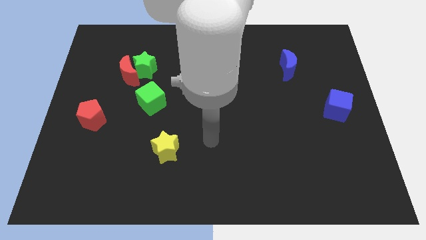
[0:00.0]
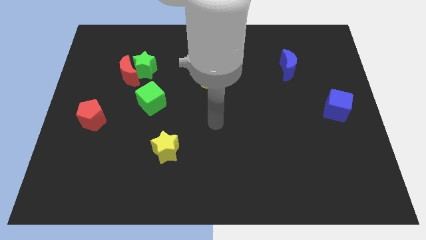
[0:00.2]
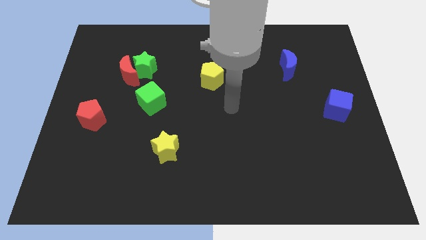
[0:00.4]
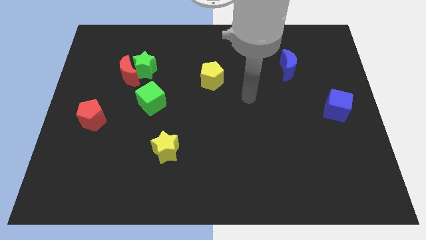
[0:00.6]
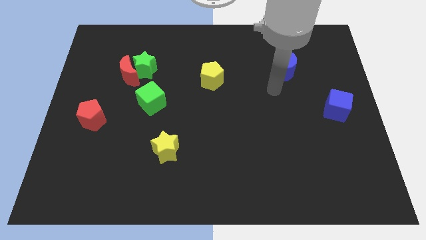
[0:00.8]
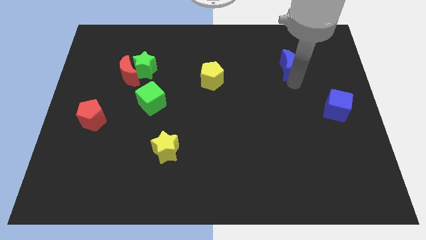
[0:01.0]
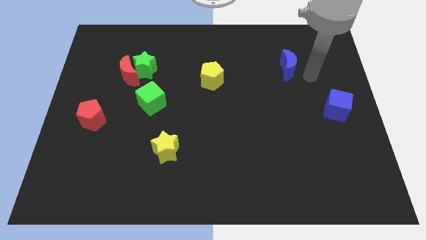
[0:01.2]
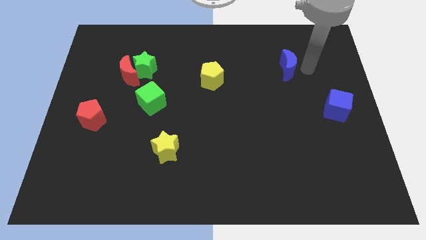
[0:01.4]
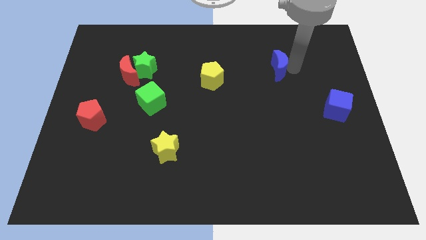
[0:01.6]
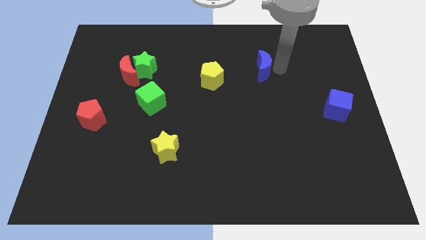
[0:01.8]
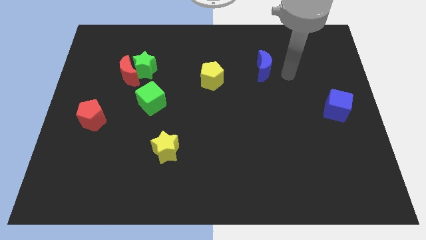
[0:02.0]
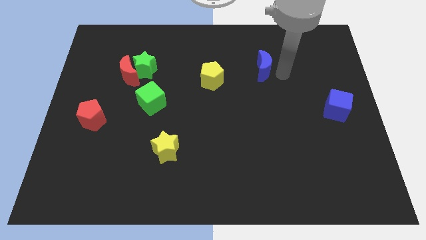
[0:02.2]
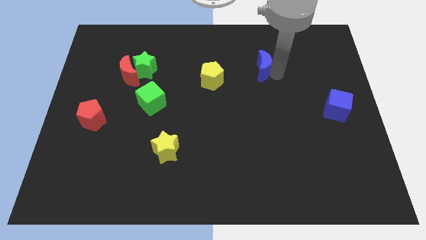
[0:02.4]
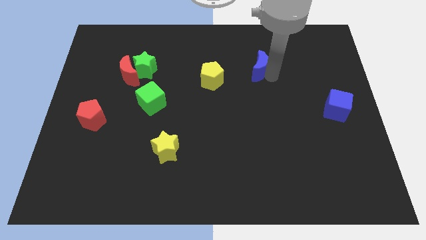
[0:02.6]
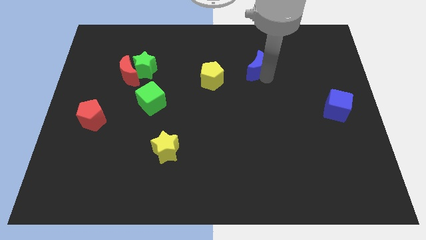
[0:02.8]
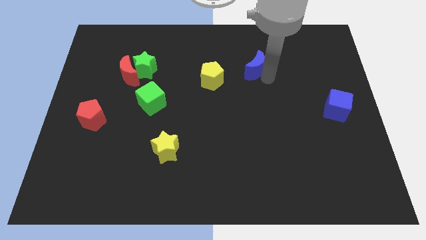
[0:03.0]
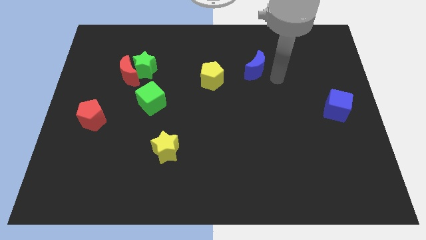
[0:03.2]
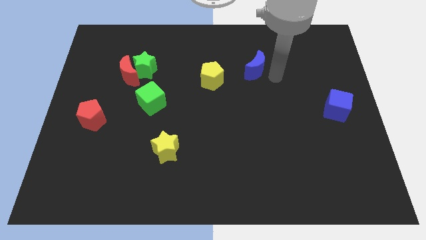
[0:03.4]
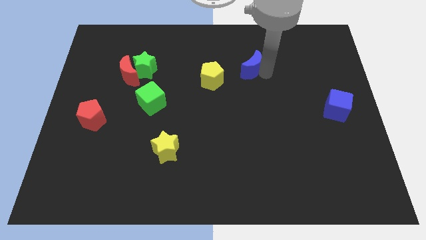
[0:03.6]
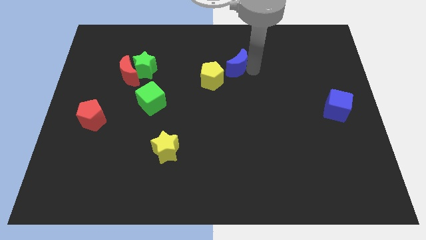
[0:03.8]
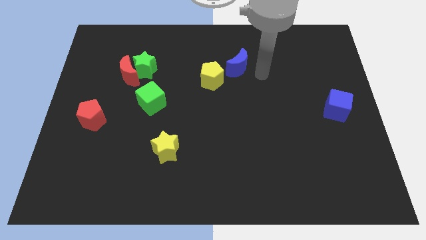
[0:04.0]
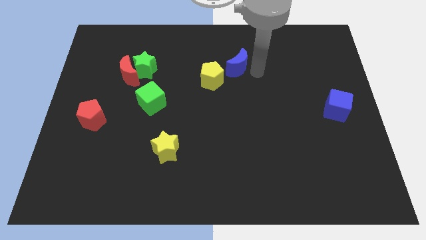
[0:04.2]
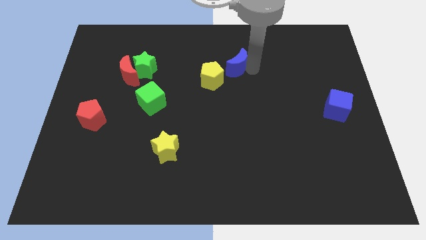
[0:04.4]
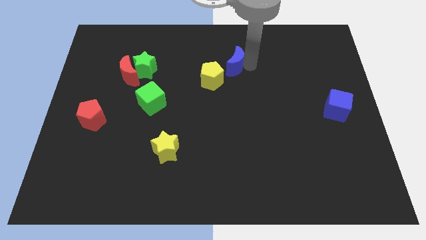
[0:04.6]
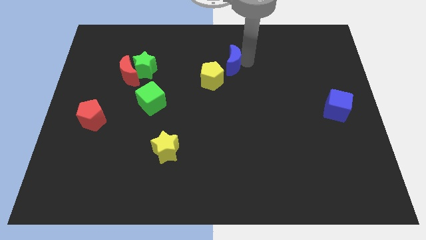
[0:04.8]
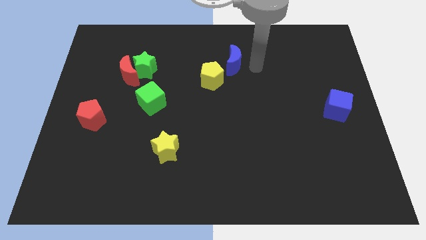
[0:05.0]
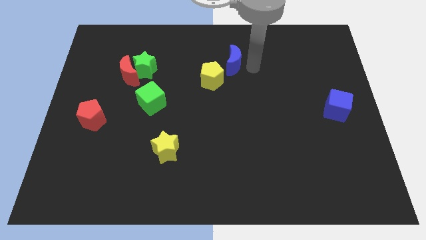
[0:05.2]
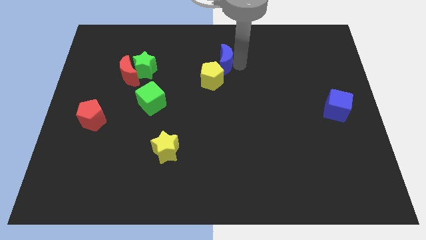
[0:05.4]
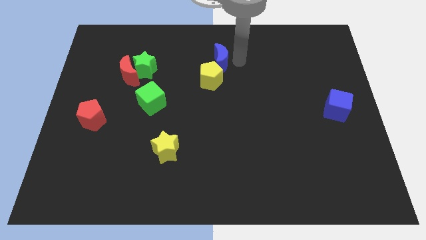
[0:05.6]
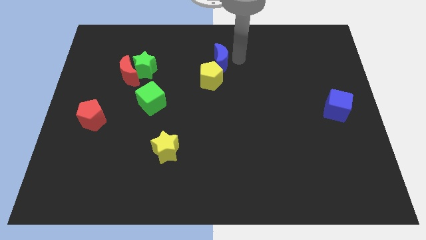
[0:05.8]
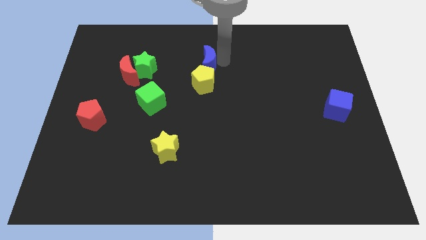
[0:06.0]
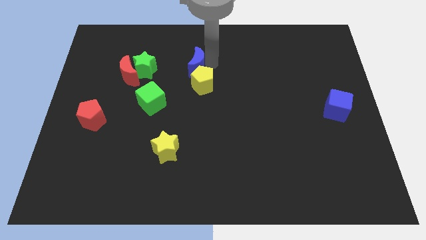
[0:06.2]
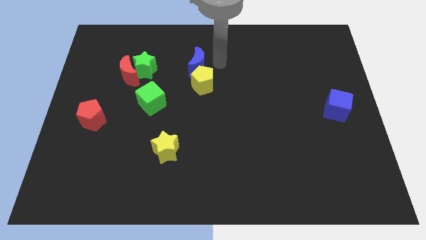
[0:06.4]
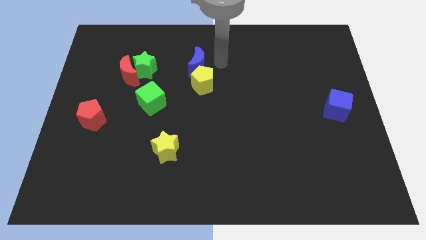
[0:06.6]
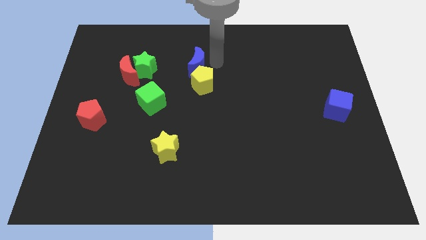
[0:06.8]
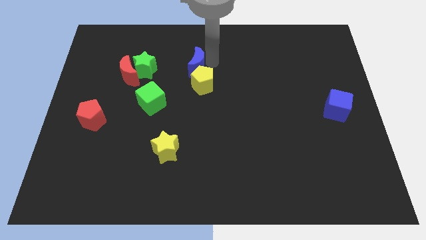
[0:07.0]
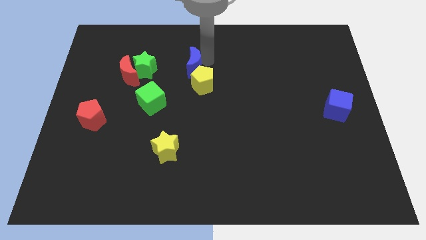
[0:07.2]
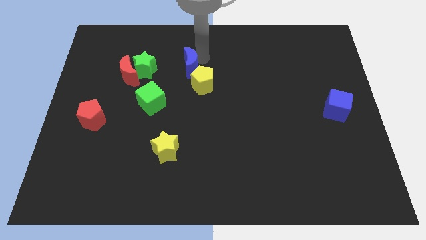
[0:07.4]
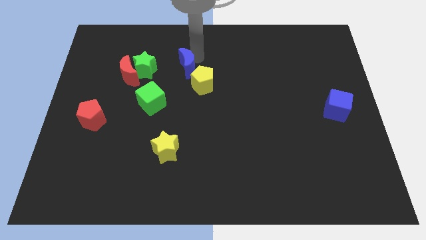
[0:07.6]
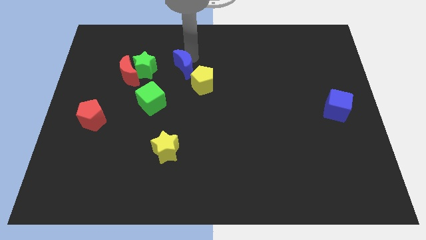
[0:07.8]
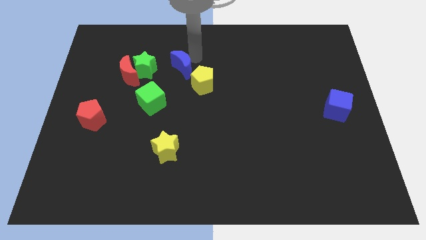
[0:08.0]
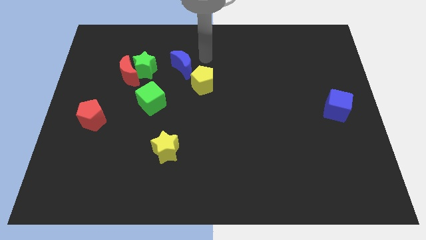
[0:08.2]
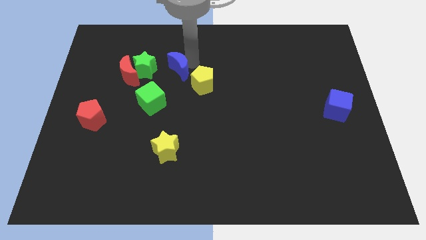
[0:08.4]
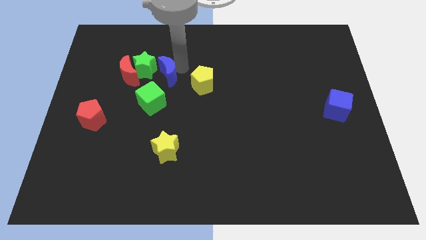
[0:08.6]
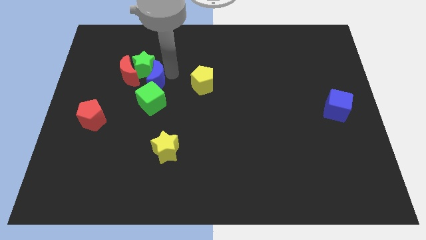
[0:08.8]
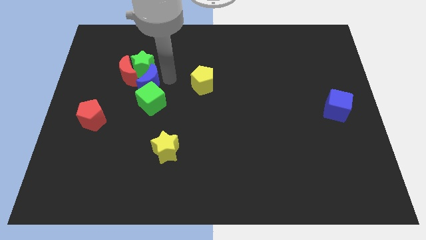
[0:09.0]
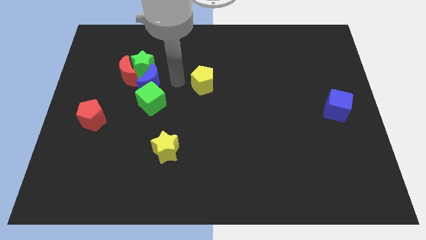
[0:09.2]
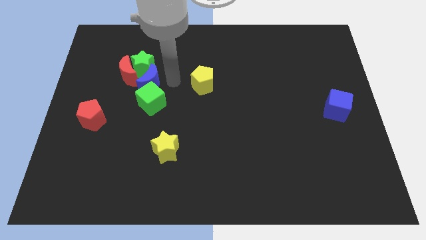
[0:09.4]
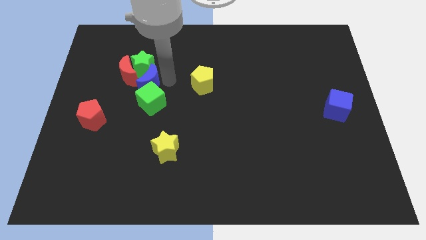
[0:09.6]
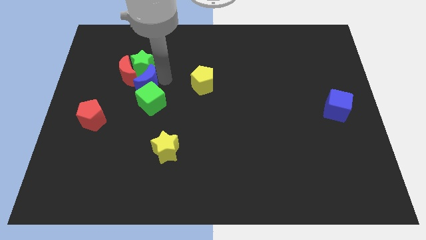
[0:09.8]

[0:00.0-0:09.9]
slide the blue moon close to the red moon

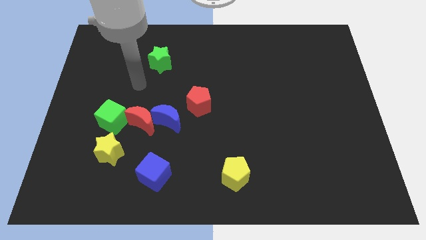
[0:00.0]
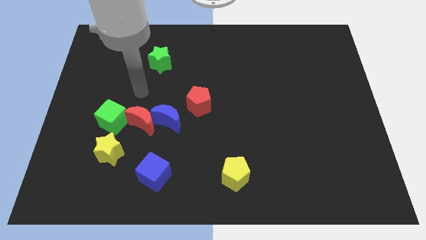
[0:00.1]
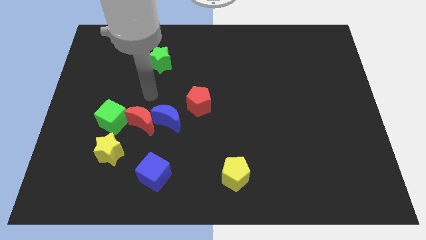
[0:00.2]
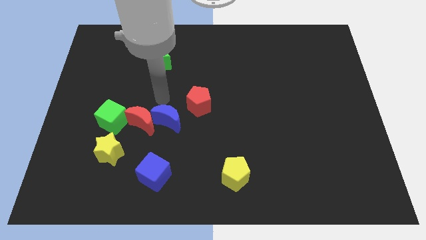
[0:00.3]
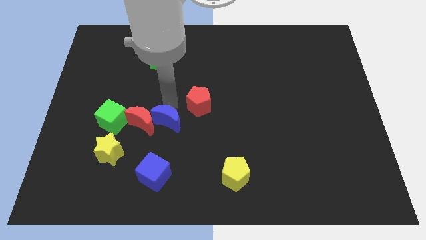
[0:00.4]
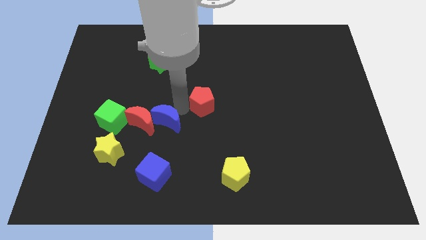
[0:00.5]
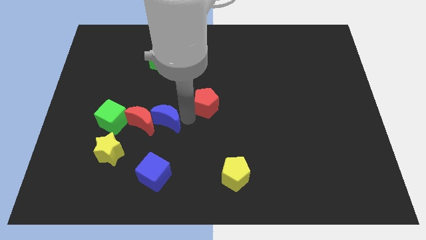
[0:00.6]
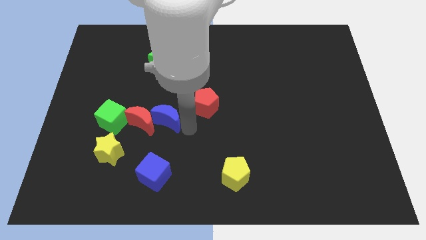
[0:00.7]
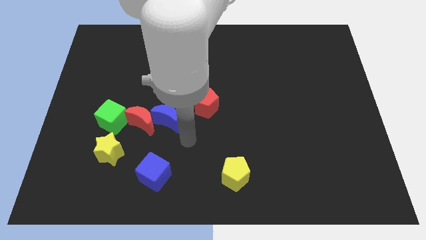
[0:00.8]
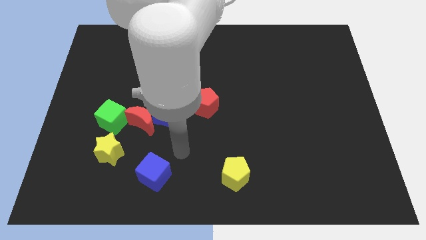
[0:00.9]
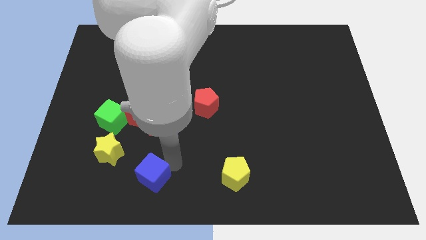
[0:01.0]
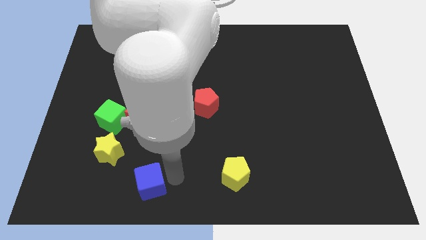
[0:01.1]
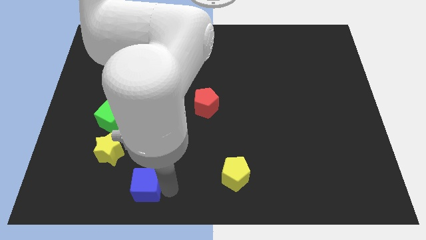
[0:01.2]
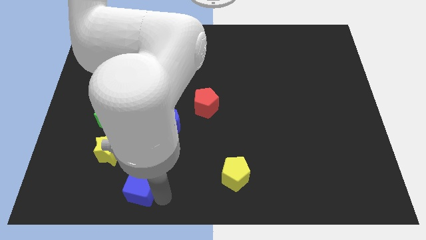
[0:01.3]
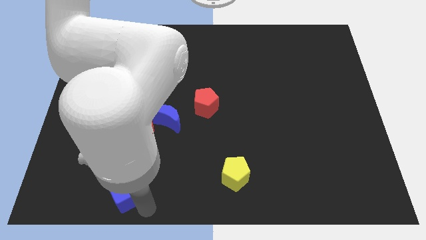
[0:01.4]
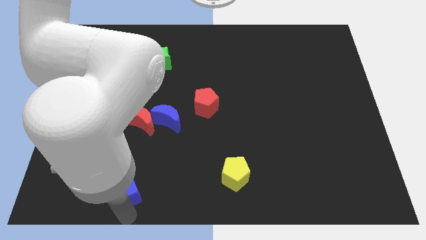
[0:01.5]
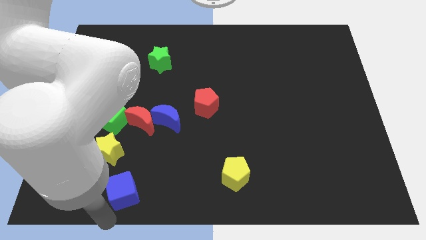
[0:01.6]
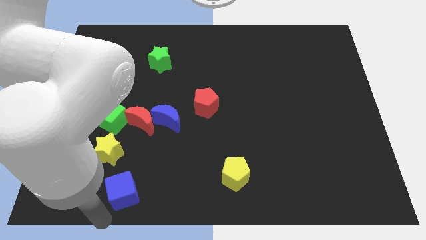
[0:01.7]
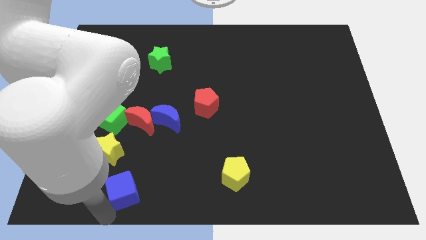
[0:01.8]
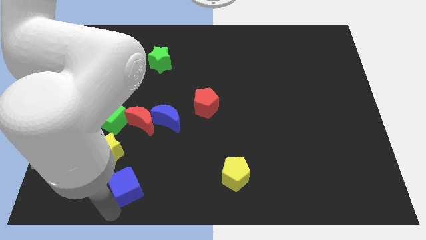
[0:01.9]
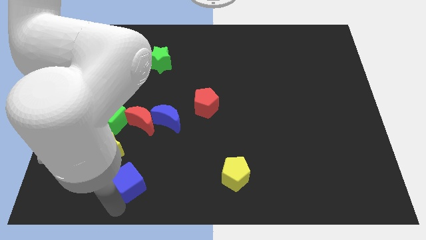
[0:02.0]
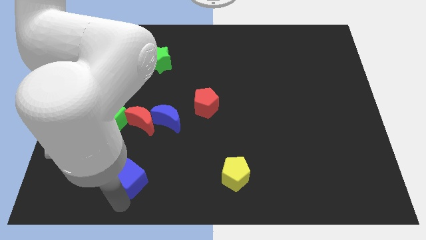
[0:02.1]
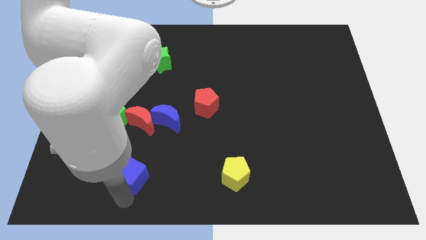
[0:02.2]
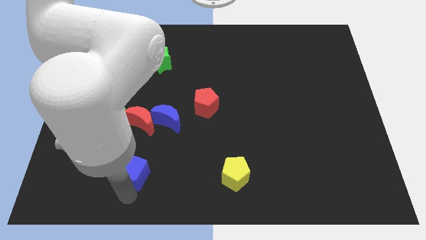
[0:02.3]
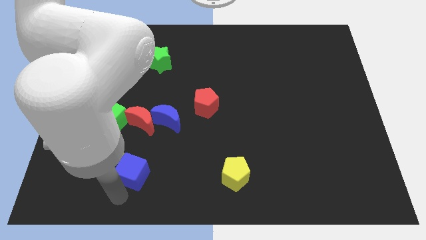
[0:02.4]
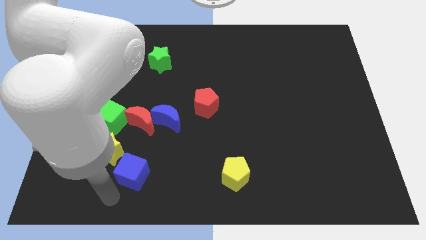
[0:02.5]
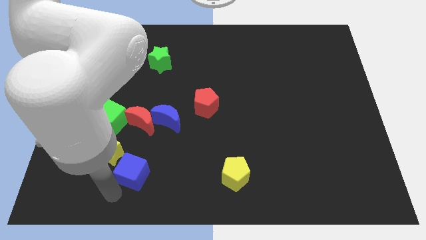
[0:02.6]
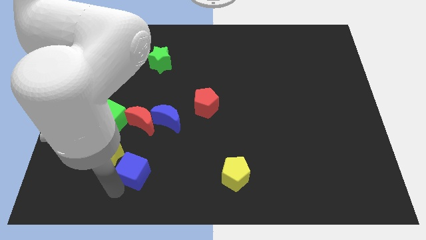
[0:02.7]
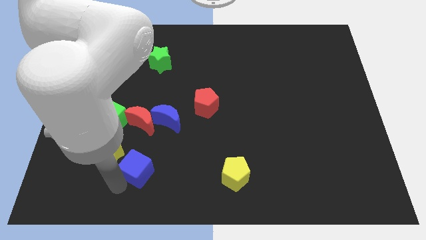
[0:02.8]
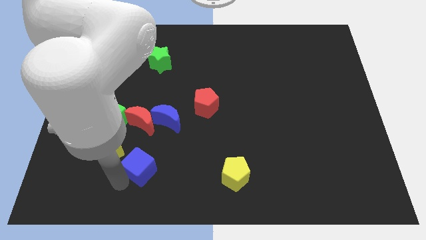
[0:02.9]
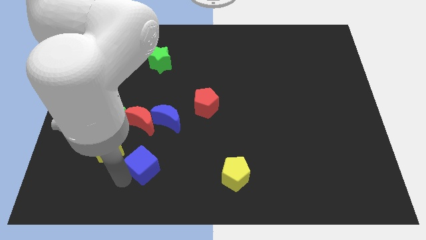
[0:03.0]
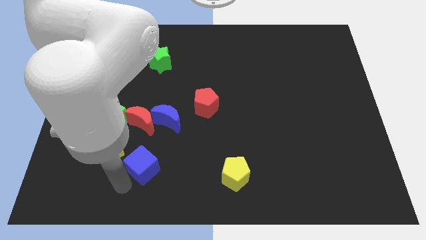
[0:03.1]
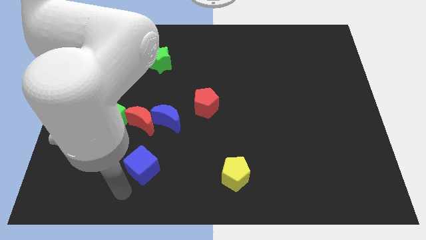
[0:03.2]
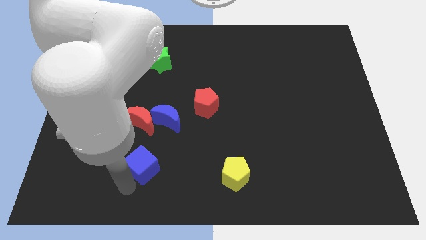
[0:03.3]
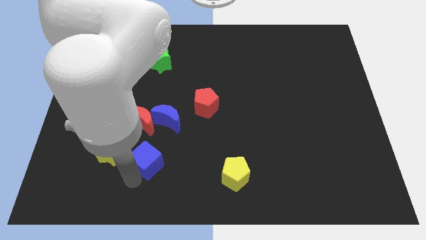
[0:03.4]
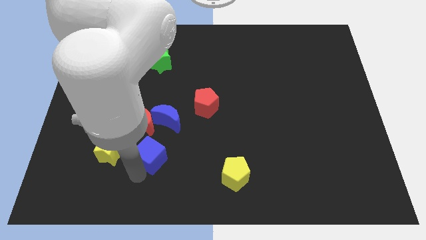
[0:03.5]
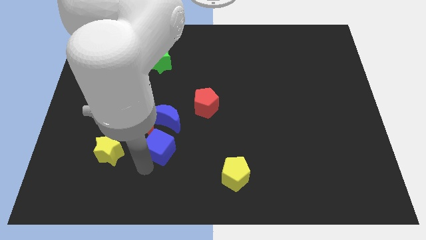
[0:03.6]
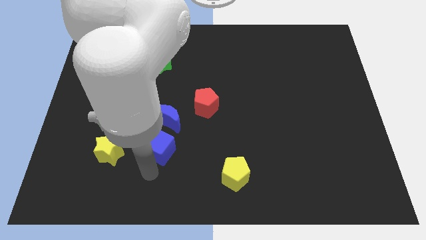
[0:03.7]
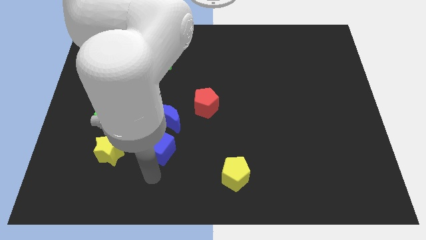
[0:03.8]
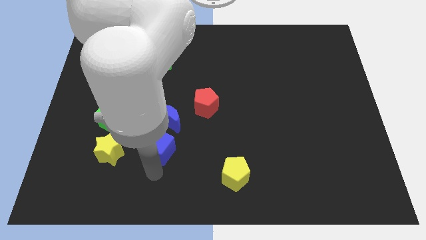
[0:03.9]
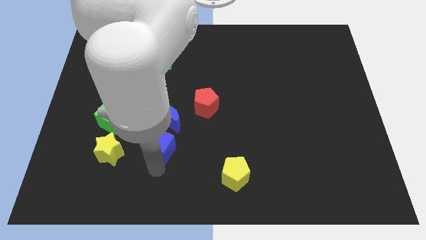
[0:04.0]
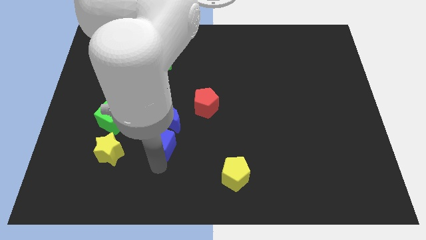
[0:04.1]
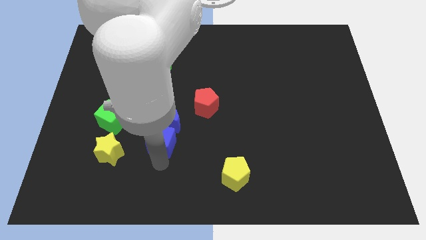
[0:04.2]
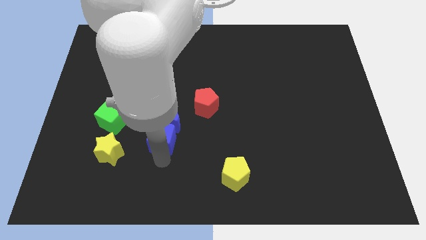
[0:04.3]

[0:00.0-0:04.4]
push the blue cube to the blue moon
